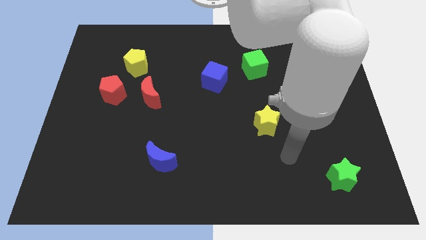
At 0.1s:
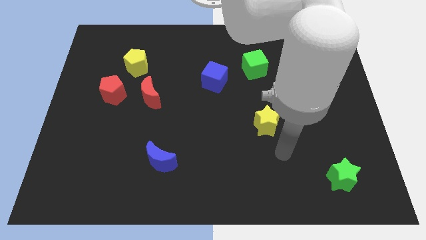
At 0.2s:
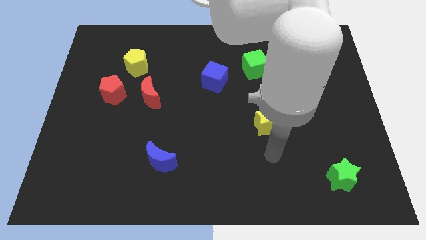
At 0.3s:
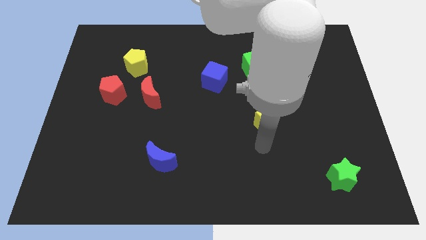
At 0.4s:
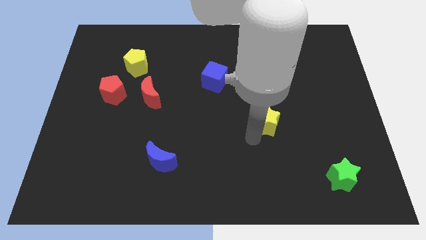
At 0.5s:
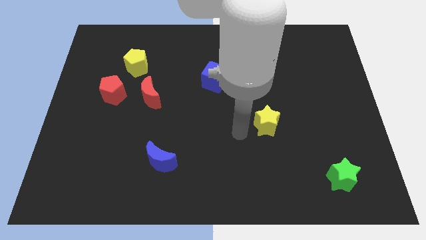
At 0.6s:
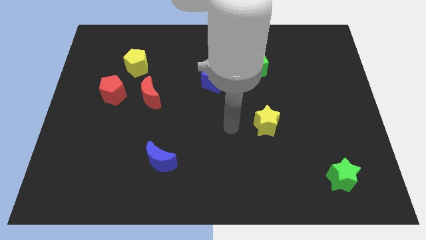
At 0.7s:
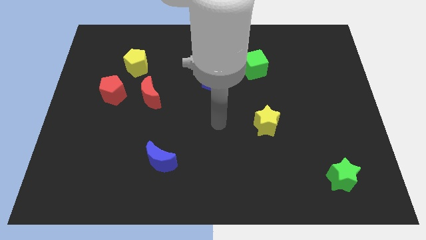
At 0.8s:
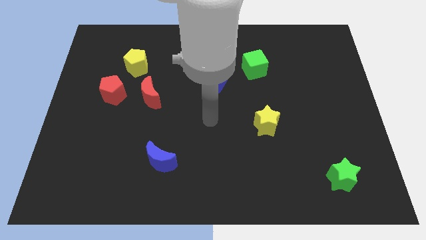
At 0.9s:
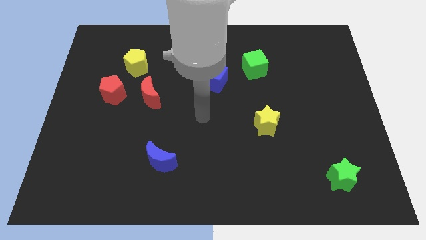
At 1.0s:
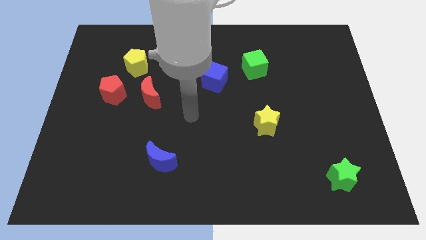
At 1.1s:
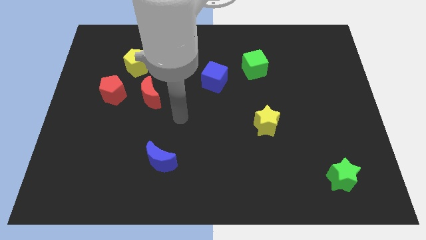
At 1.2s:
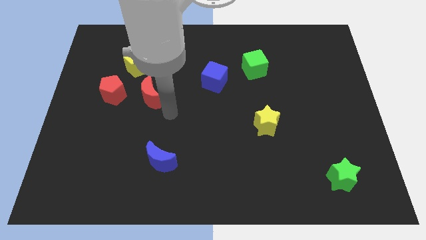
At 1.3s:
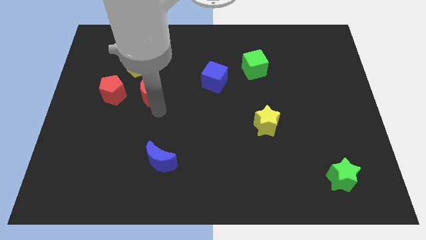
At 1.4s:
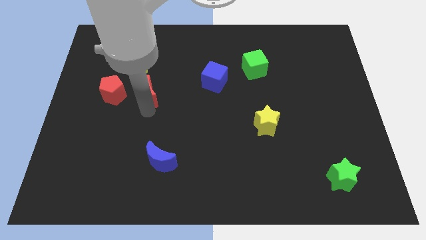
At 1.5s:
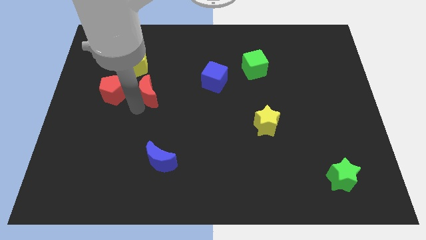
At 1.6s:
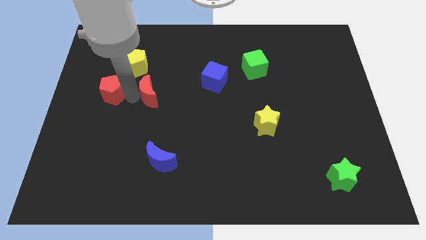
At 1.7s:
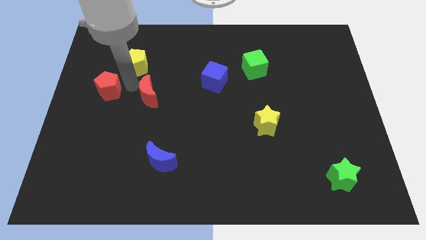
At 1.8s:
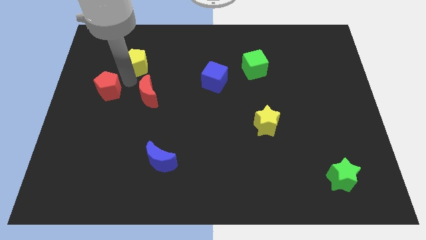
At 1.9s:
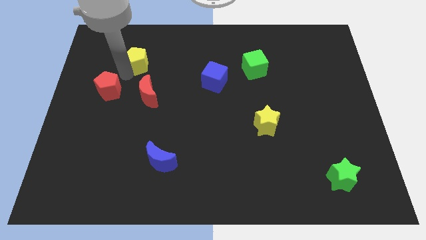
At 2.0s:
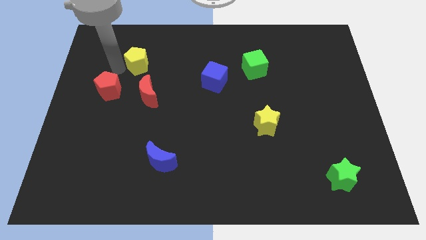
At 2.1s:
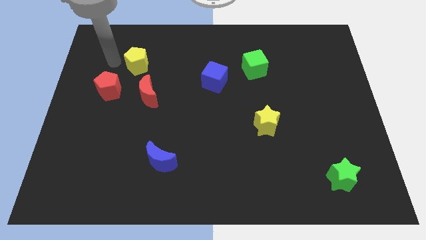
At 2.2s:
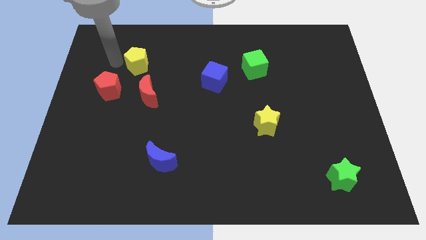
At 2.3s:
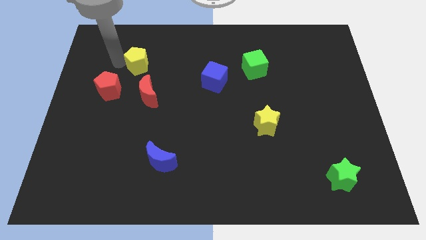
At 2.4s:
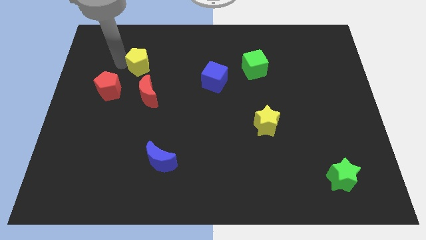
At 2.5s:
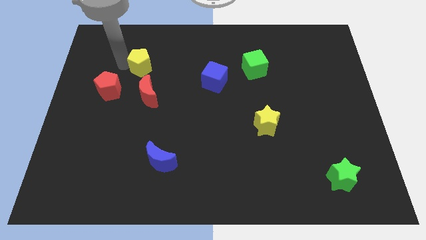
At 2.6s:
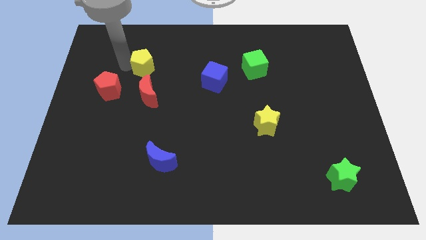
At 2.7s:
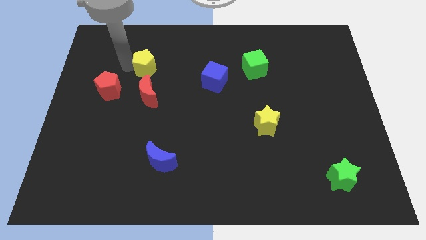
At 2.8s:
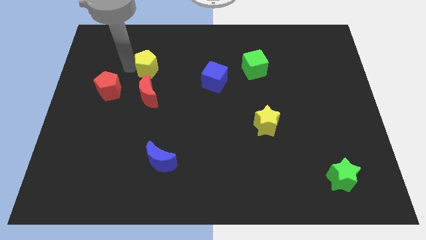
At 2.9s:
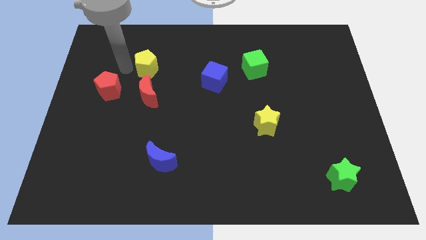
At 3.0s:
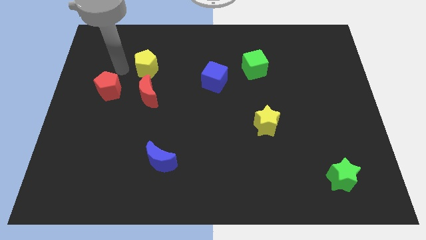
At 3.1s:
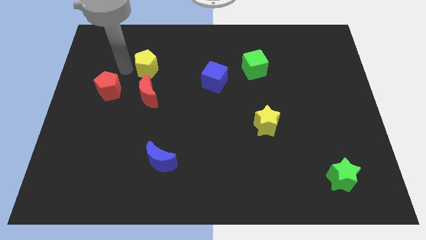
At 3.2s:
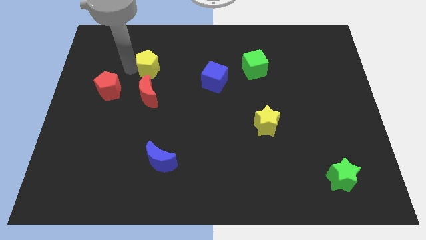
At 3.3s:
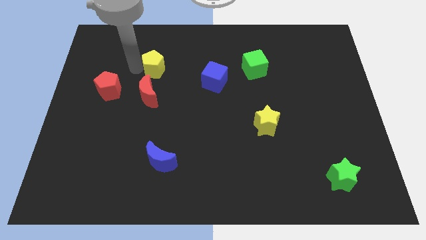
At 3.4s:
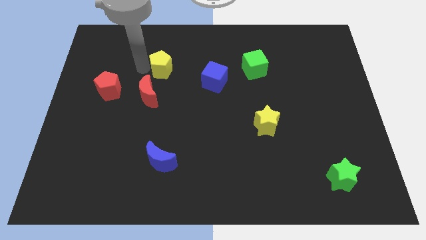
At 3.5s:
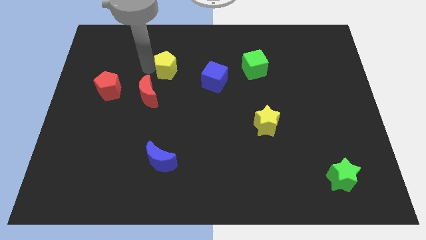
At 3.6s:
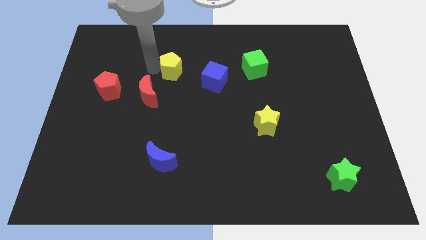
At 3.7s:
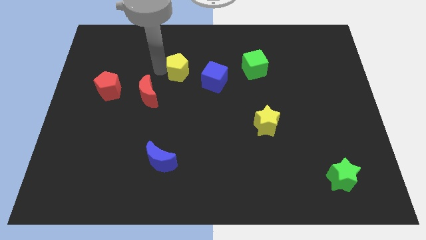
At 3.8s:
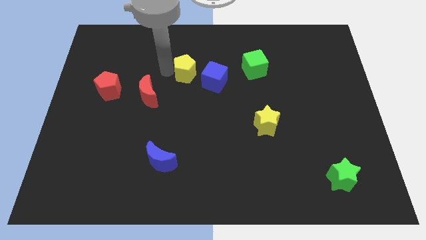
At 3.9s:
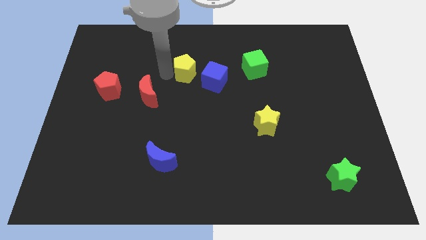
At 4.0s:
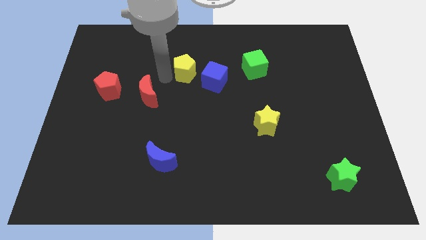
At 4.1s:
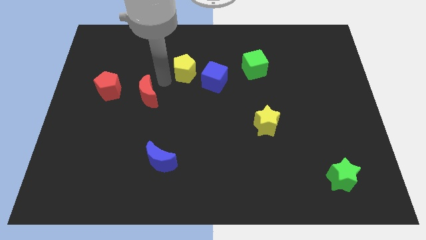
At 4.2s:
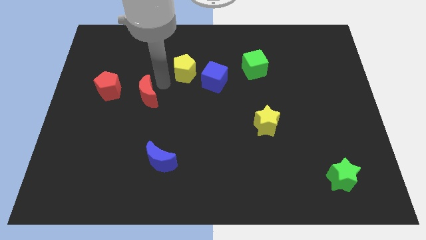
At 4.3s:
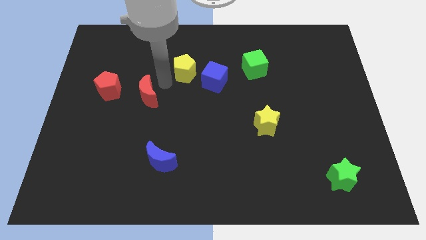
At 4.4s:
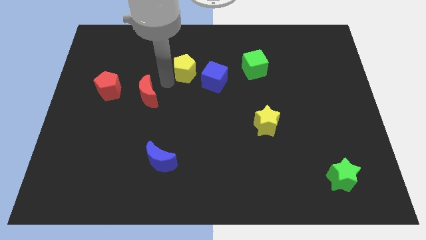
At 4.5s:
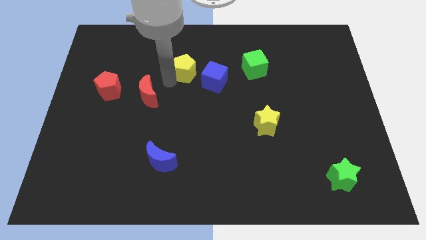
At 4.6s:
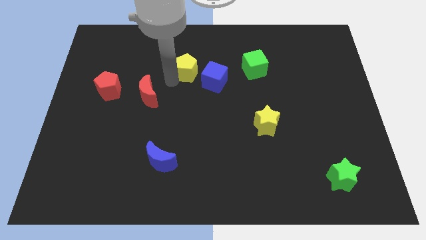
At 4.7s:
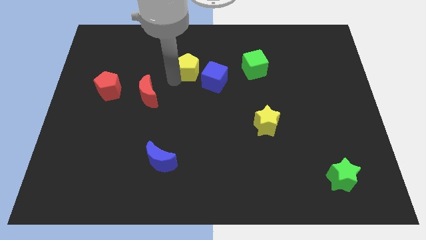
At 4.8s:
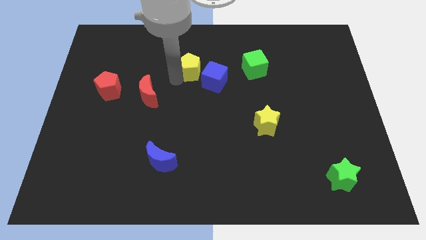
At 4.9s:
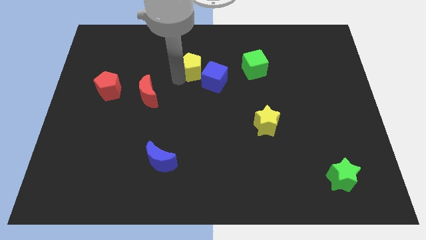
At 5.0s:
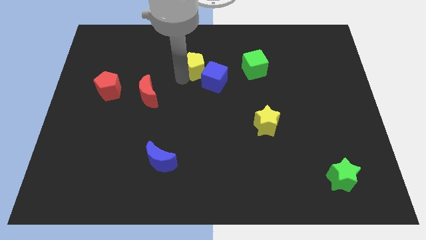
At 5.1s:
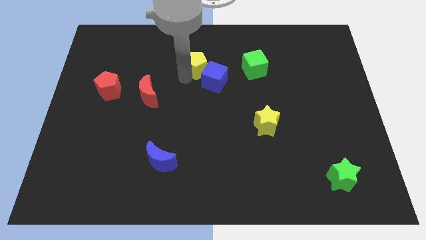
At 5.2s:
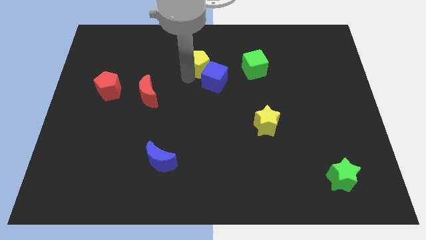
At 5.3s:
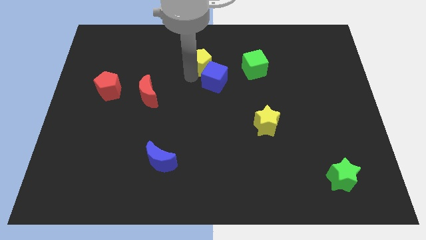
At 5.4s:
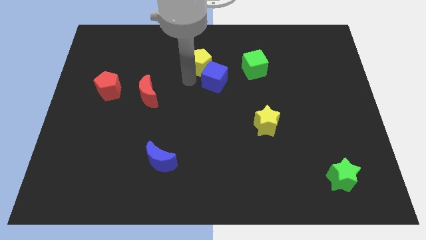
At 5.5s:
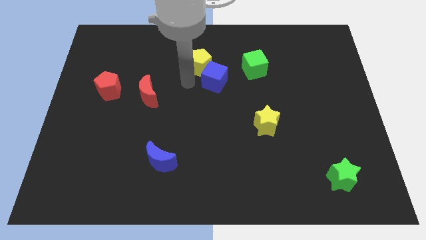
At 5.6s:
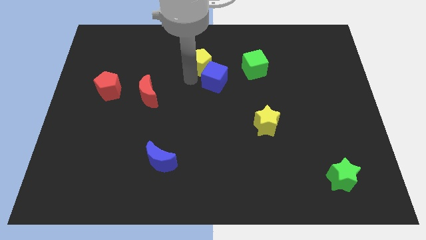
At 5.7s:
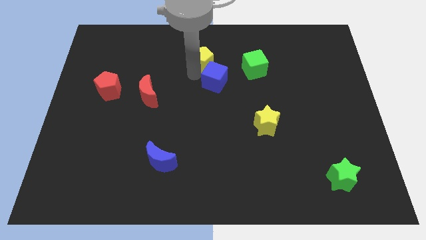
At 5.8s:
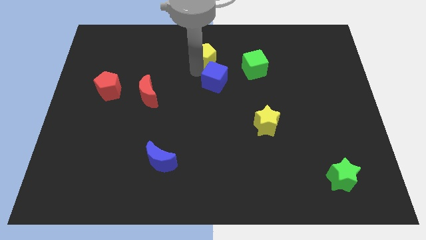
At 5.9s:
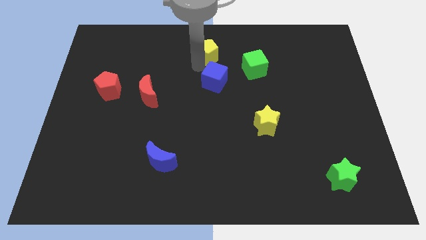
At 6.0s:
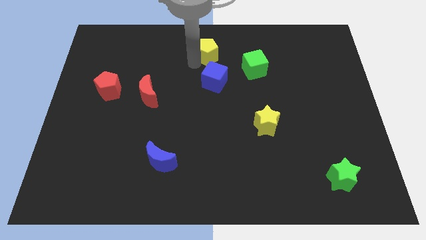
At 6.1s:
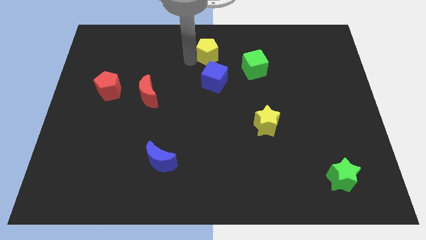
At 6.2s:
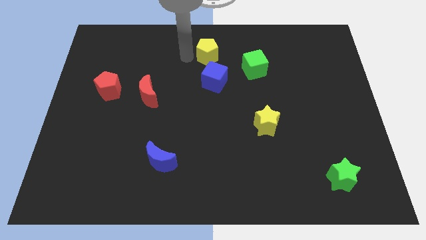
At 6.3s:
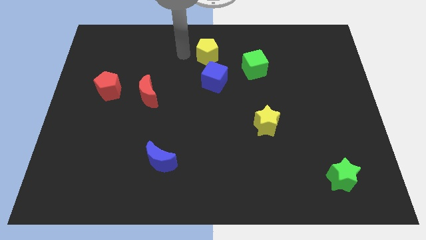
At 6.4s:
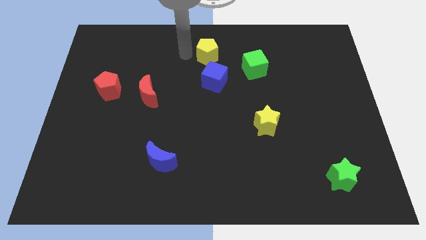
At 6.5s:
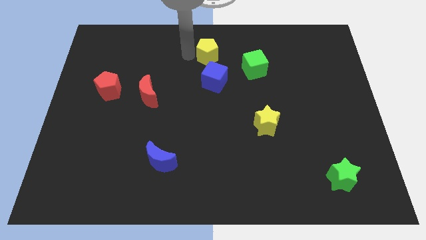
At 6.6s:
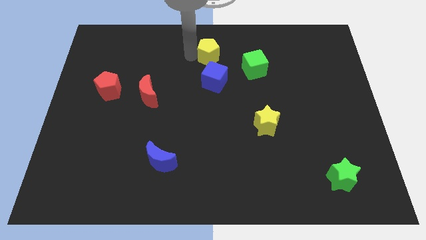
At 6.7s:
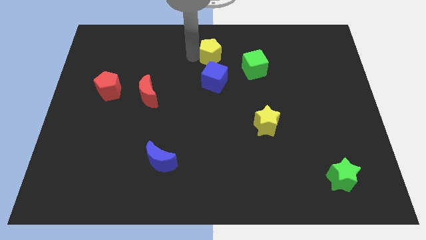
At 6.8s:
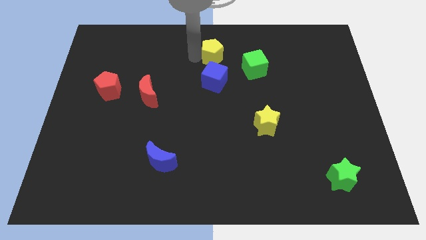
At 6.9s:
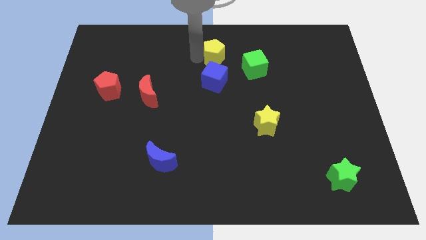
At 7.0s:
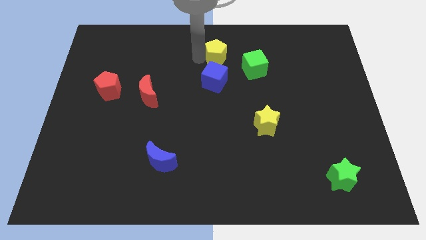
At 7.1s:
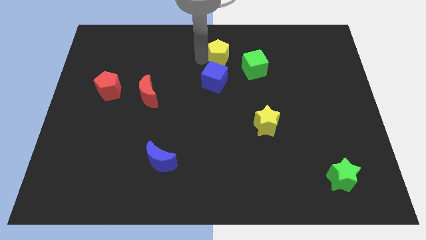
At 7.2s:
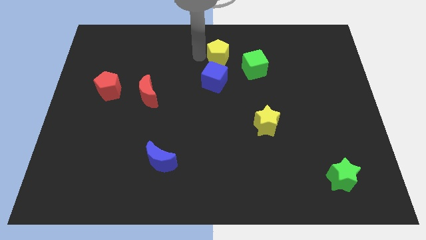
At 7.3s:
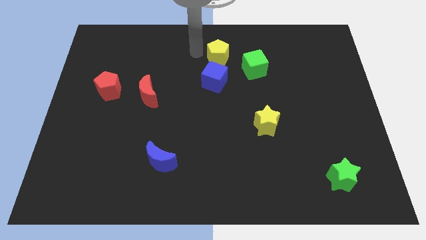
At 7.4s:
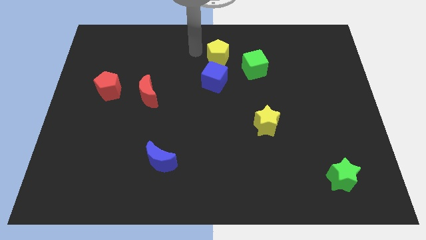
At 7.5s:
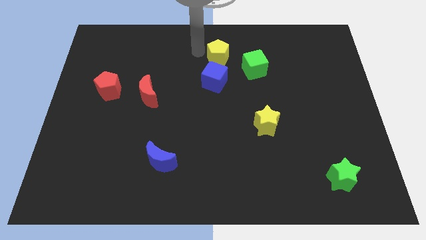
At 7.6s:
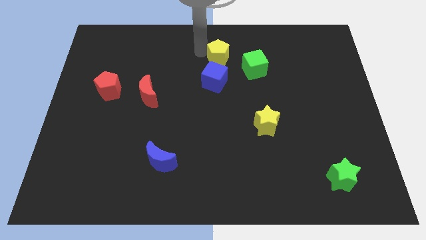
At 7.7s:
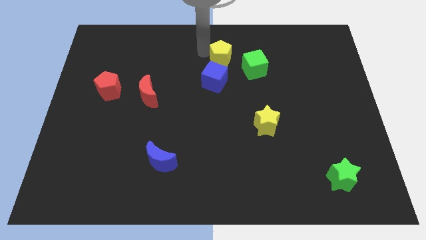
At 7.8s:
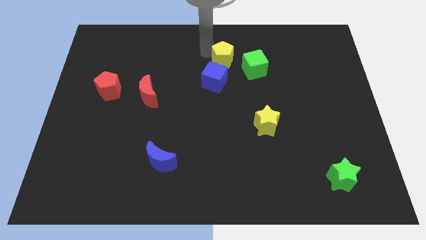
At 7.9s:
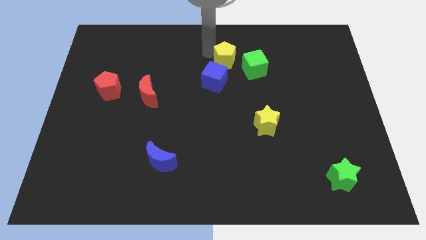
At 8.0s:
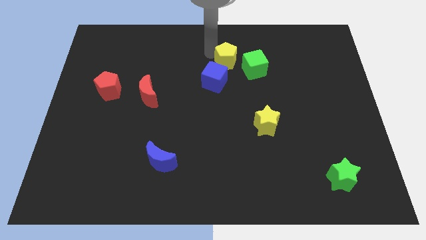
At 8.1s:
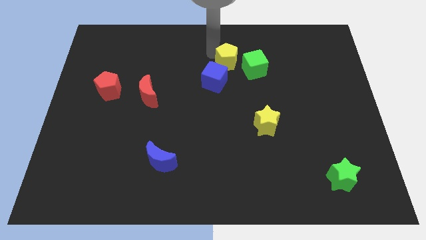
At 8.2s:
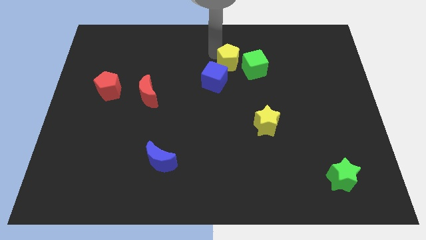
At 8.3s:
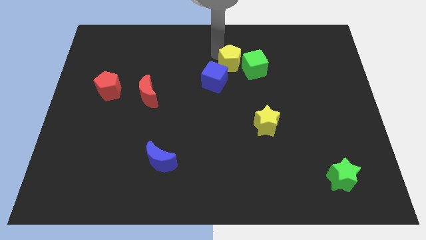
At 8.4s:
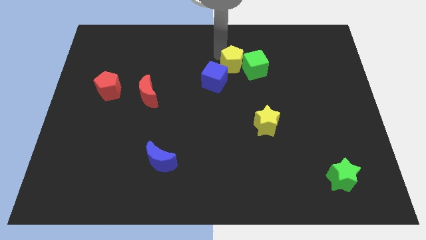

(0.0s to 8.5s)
move the yellow pentagon towards the green cube
